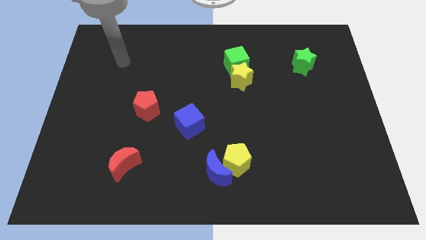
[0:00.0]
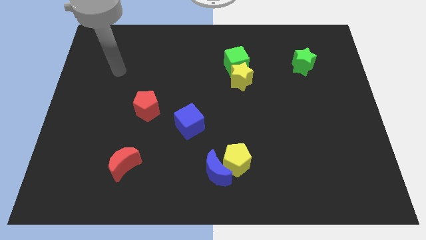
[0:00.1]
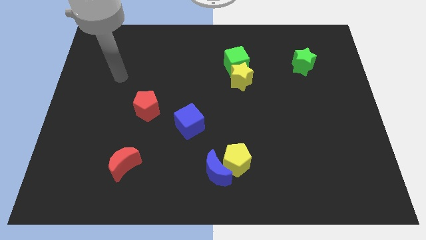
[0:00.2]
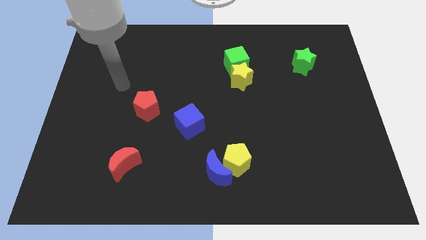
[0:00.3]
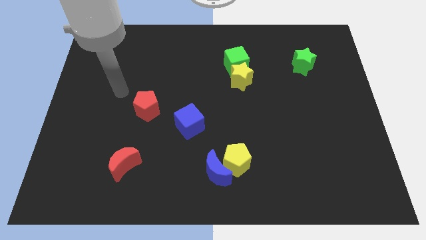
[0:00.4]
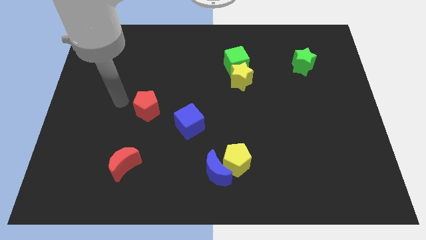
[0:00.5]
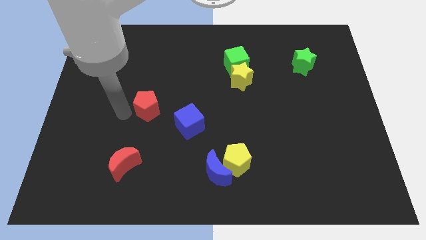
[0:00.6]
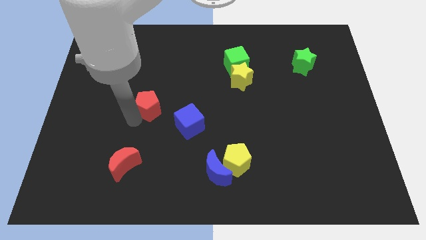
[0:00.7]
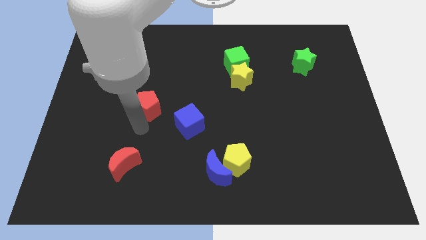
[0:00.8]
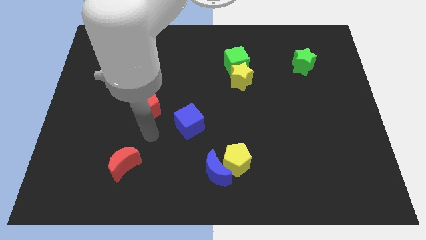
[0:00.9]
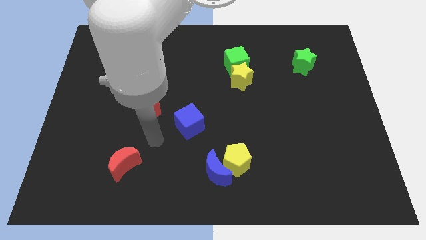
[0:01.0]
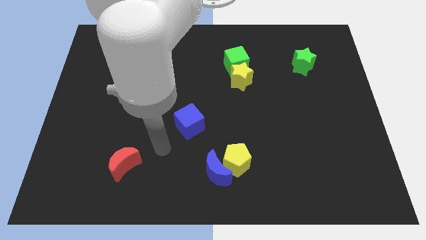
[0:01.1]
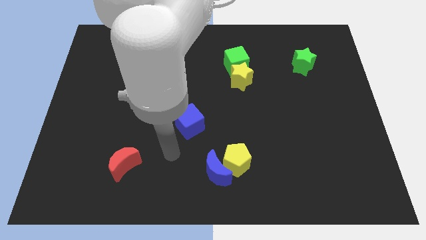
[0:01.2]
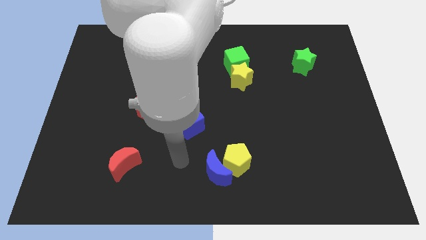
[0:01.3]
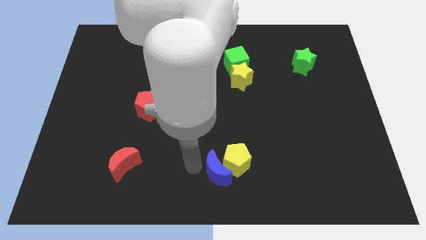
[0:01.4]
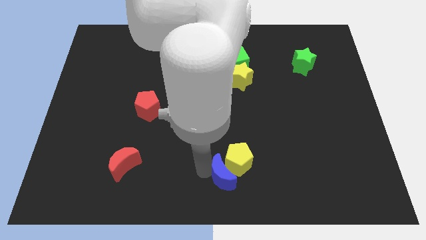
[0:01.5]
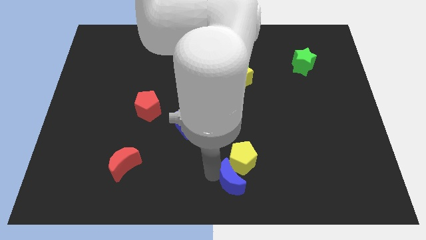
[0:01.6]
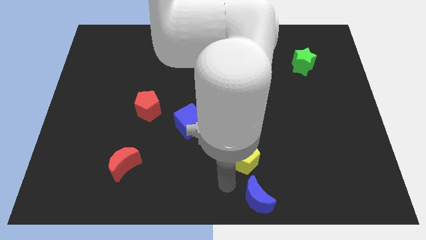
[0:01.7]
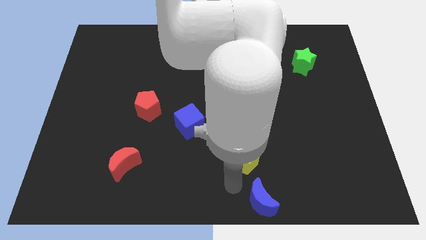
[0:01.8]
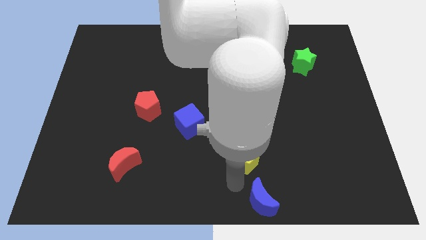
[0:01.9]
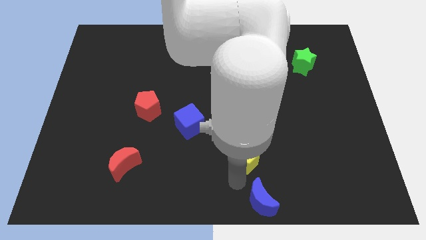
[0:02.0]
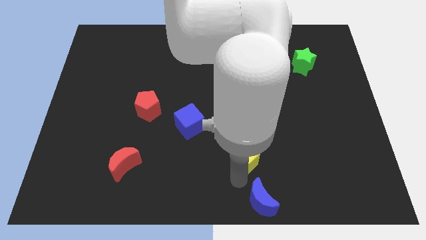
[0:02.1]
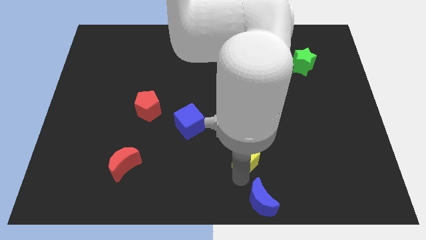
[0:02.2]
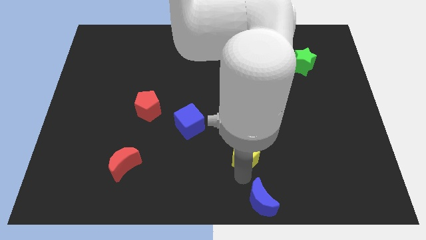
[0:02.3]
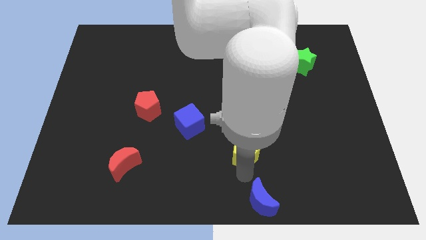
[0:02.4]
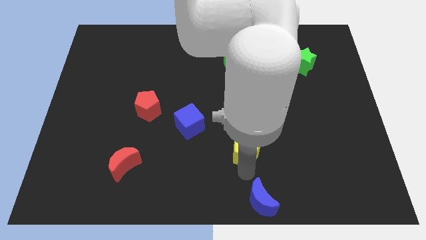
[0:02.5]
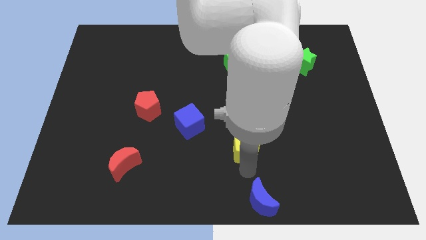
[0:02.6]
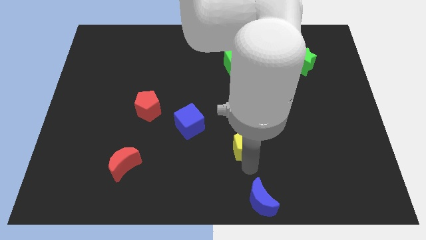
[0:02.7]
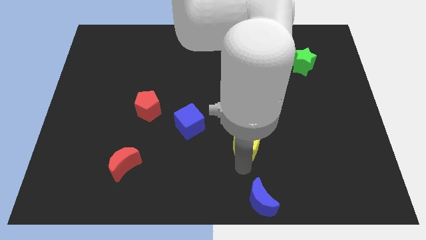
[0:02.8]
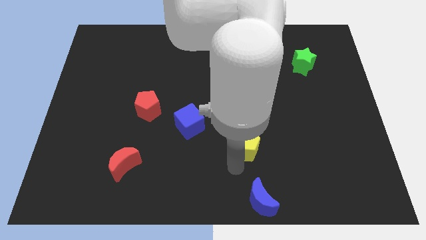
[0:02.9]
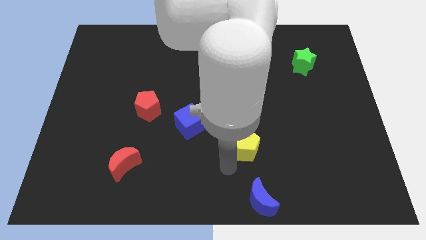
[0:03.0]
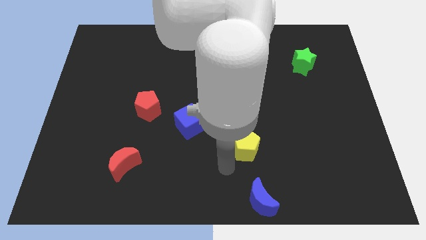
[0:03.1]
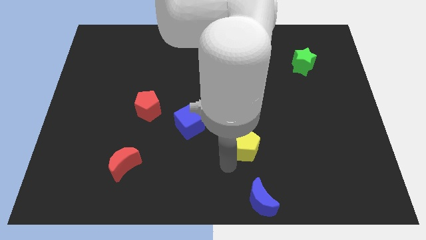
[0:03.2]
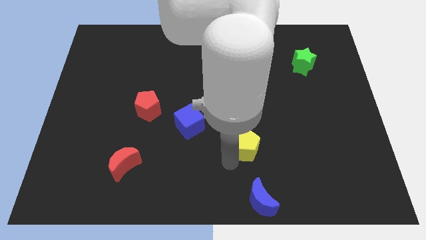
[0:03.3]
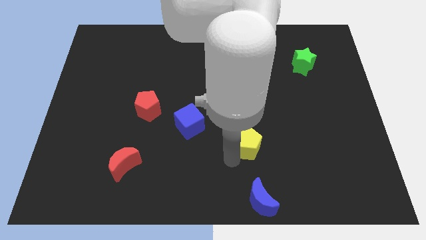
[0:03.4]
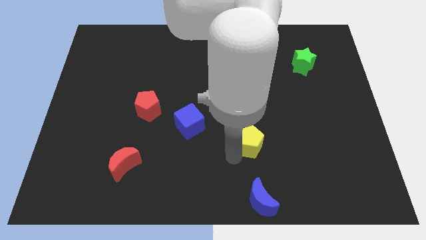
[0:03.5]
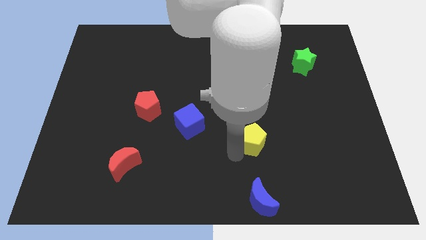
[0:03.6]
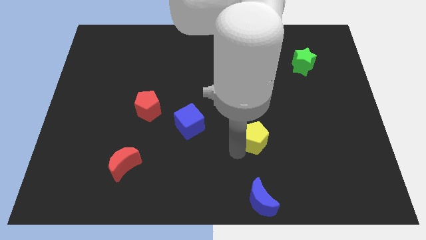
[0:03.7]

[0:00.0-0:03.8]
push the yellow pentagon somewhat up and then right

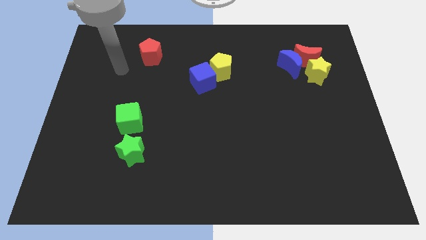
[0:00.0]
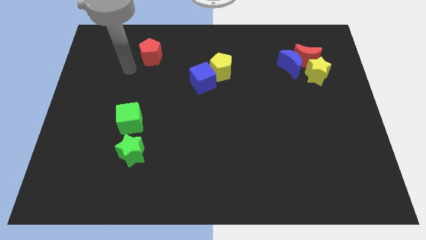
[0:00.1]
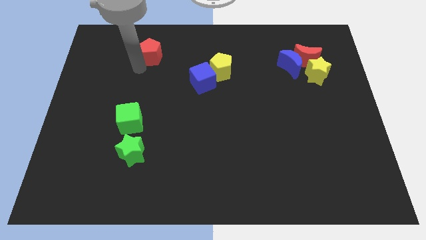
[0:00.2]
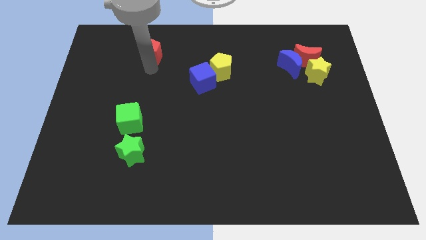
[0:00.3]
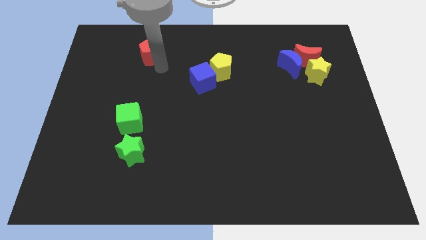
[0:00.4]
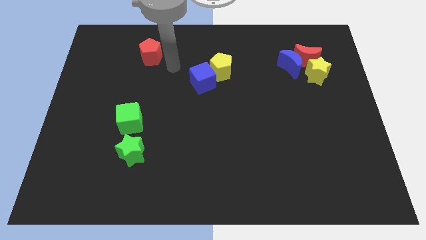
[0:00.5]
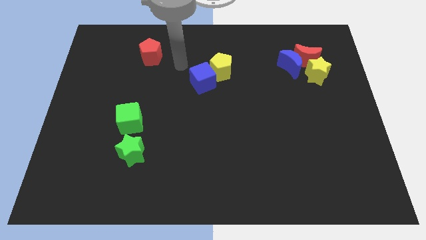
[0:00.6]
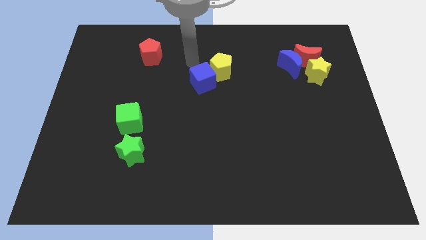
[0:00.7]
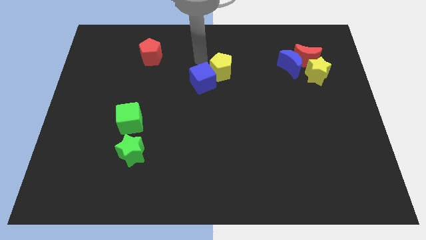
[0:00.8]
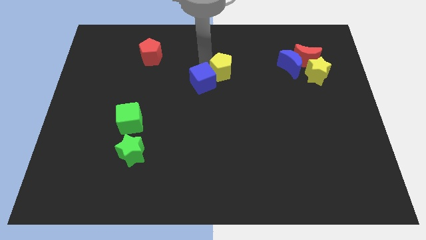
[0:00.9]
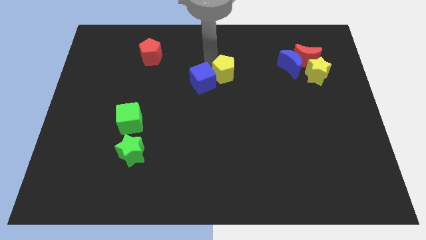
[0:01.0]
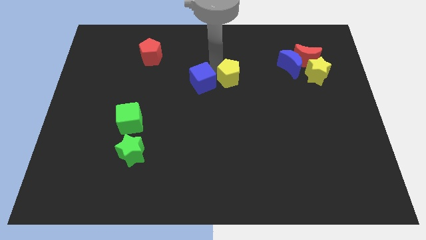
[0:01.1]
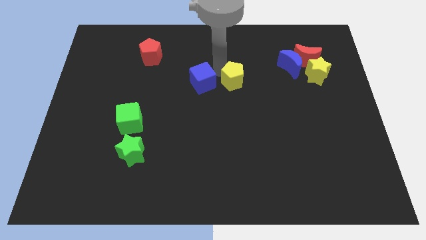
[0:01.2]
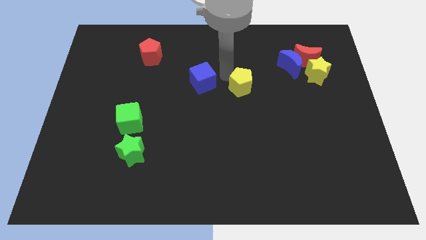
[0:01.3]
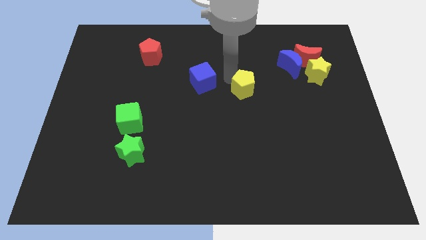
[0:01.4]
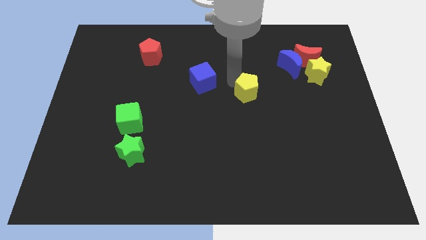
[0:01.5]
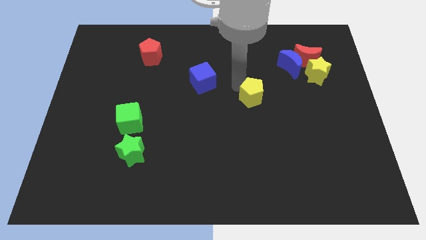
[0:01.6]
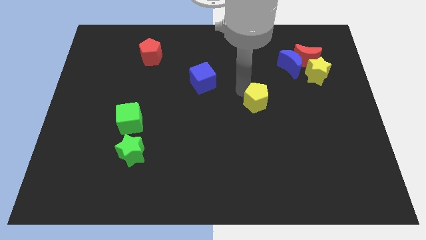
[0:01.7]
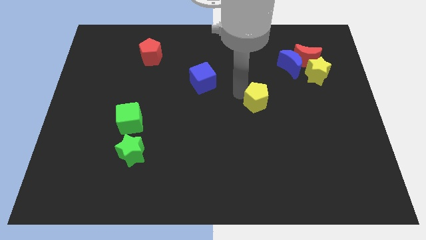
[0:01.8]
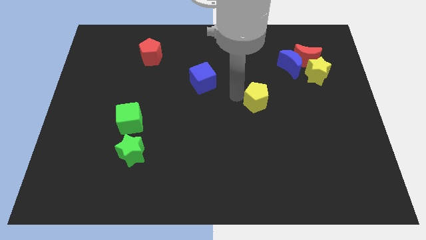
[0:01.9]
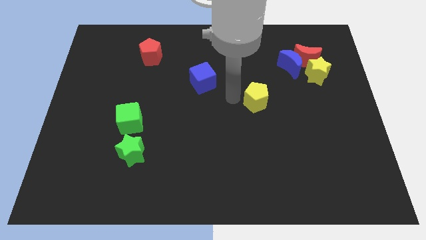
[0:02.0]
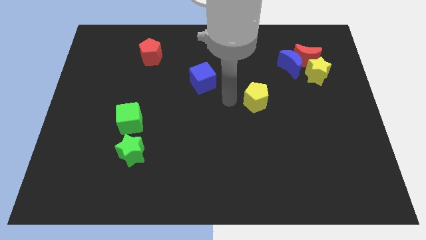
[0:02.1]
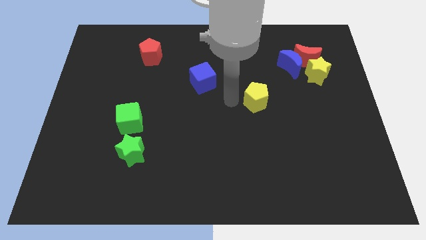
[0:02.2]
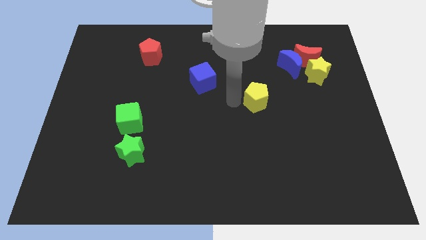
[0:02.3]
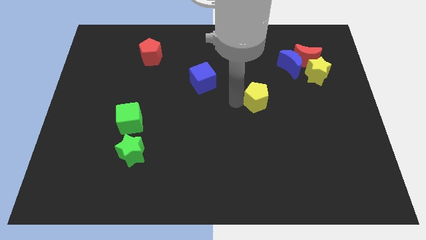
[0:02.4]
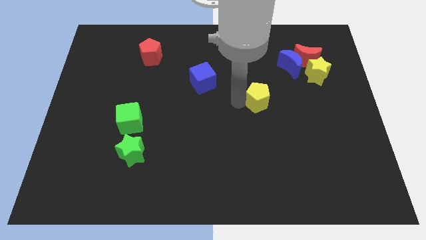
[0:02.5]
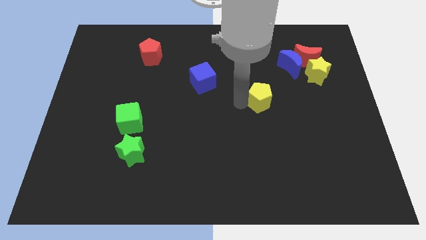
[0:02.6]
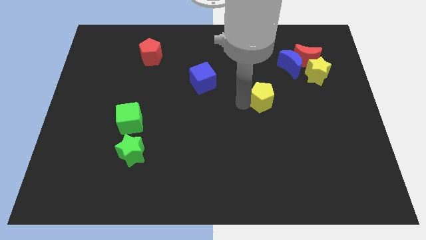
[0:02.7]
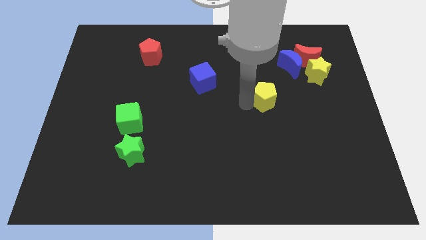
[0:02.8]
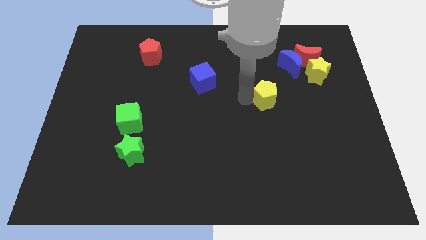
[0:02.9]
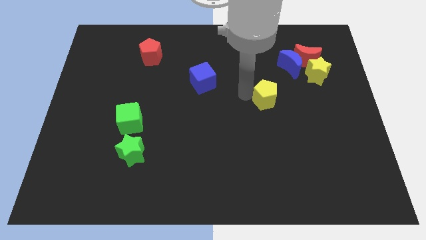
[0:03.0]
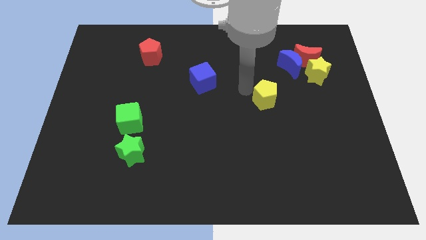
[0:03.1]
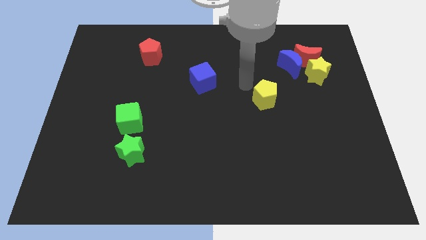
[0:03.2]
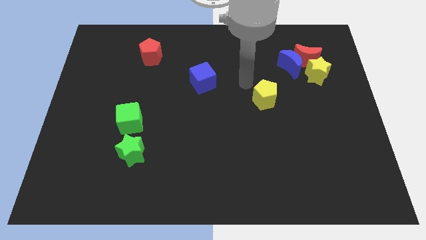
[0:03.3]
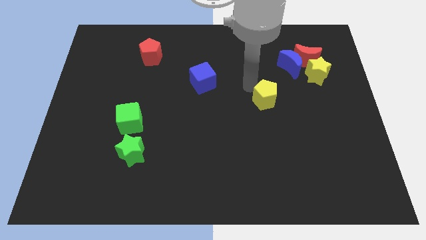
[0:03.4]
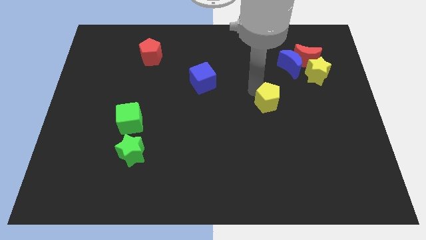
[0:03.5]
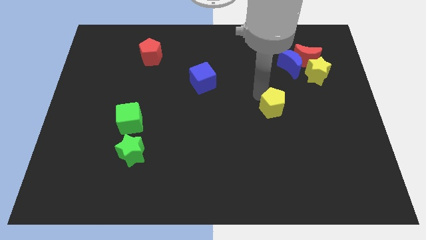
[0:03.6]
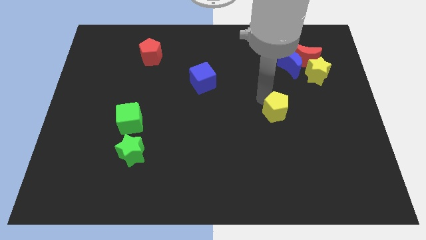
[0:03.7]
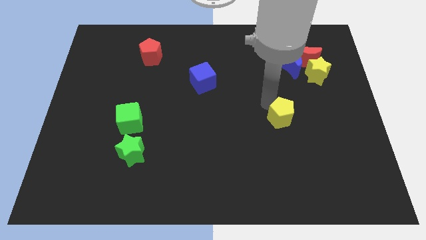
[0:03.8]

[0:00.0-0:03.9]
push the yellow pentagon diagonally downwards and right

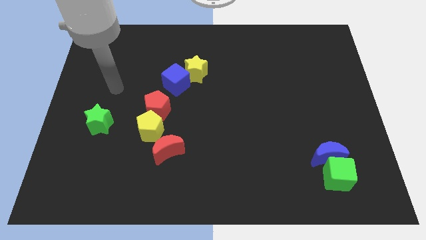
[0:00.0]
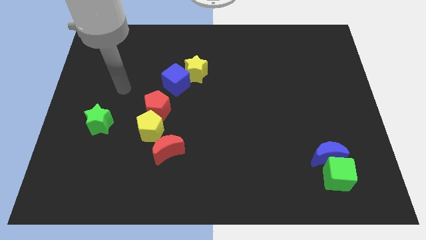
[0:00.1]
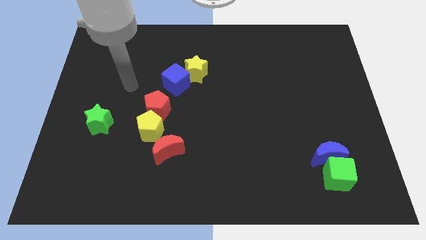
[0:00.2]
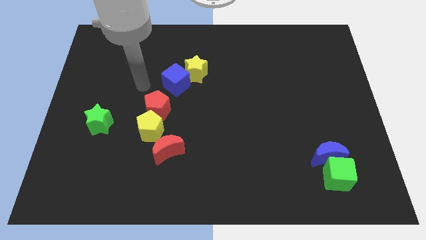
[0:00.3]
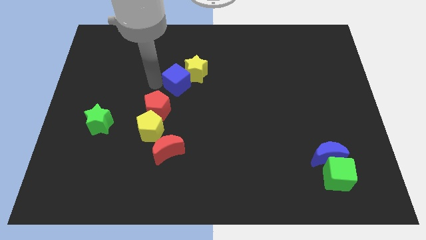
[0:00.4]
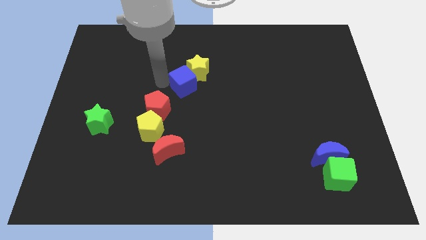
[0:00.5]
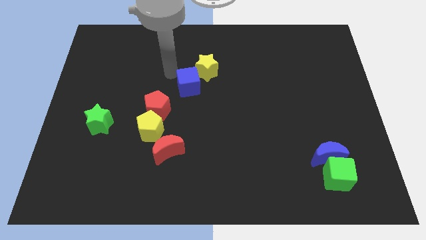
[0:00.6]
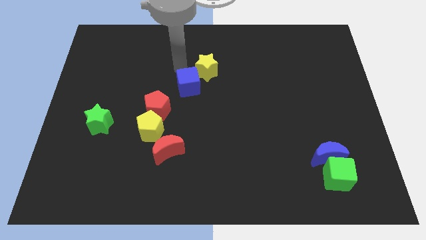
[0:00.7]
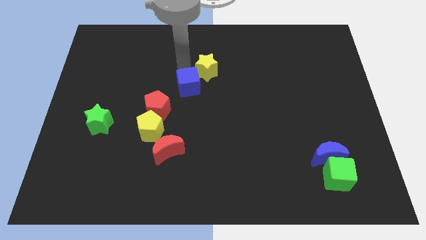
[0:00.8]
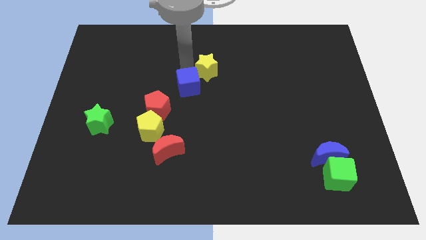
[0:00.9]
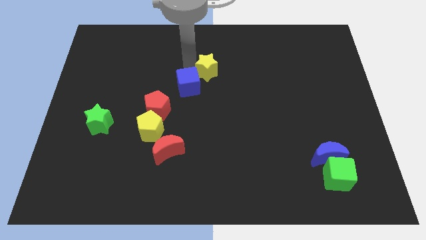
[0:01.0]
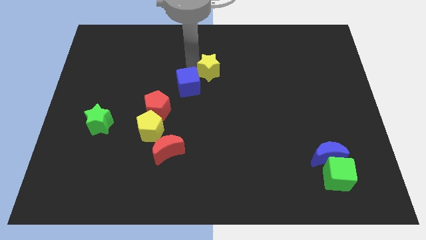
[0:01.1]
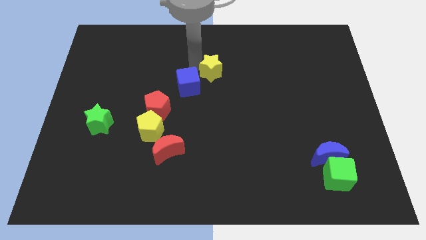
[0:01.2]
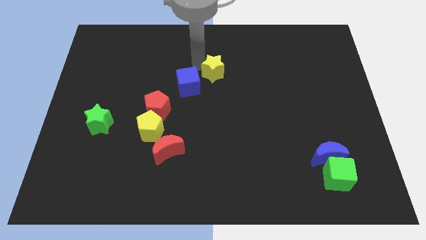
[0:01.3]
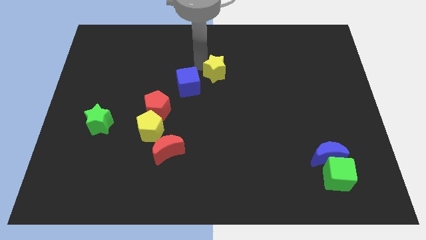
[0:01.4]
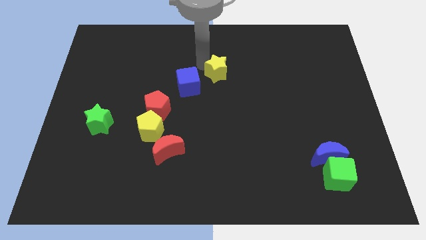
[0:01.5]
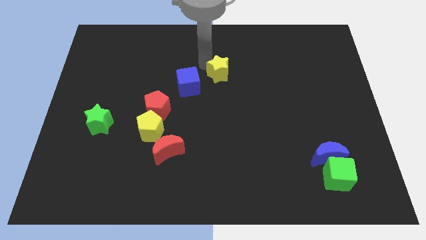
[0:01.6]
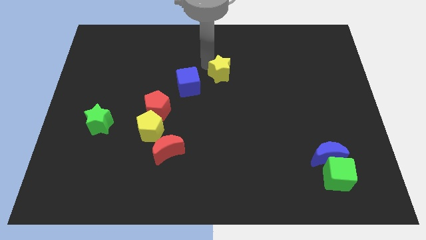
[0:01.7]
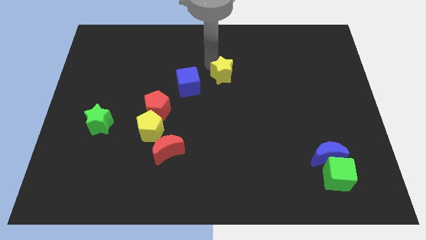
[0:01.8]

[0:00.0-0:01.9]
move the yellow star to the right a little
